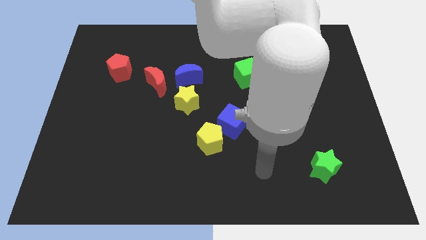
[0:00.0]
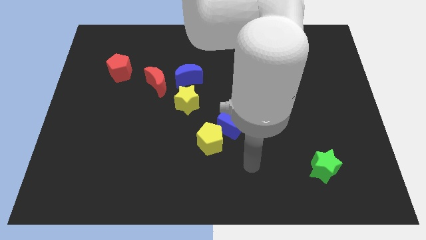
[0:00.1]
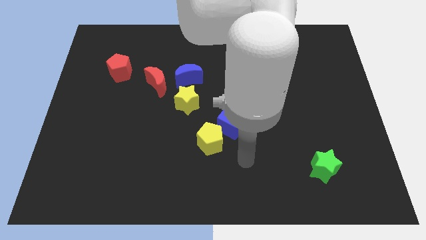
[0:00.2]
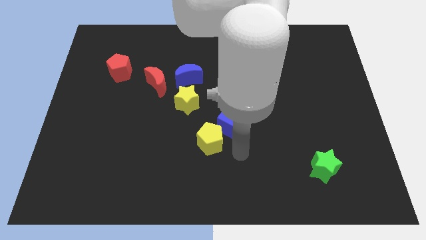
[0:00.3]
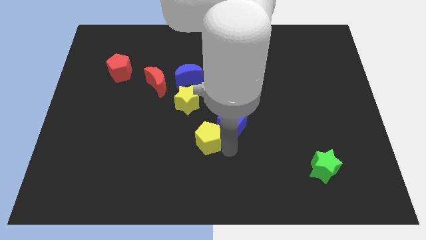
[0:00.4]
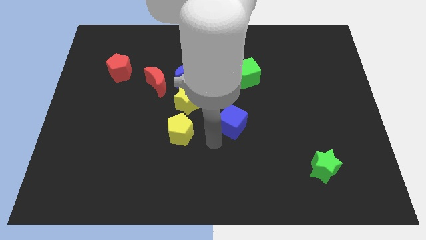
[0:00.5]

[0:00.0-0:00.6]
separate the blue cube from the yellow pentagon

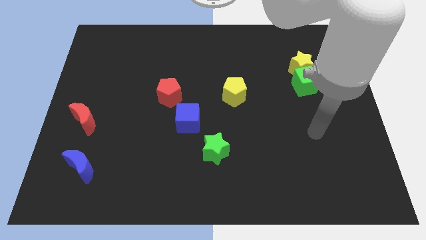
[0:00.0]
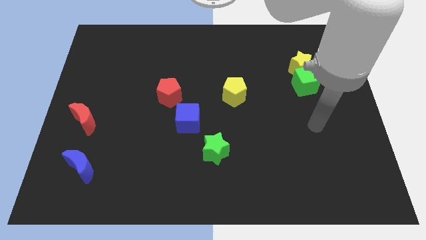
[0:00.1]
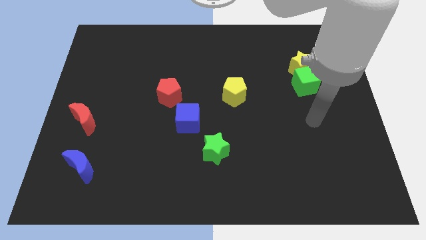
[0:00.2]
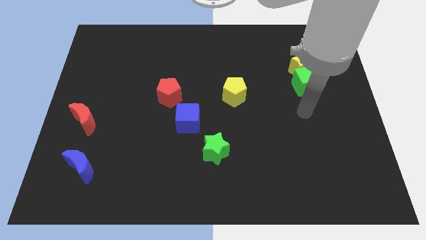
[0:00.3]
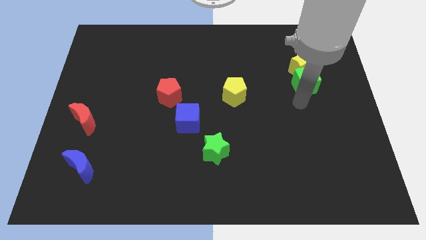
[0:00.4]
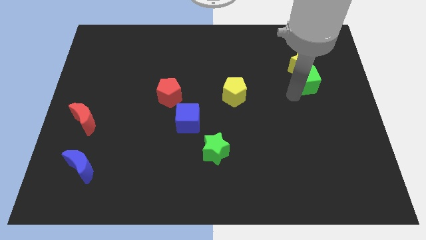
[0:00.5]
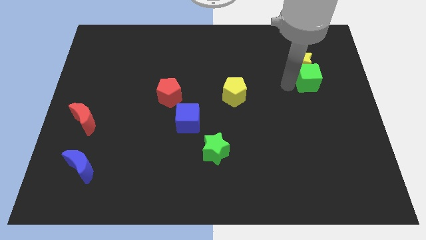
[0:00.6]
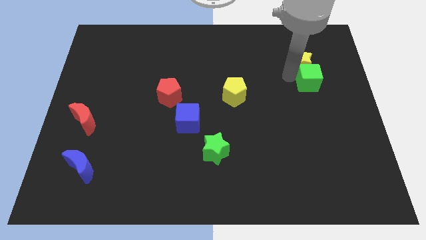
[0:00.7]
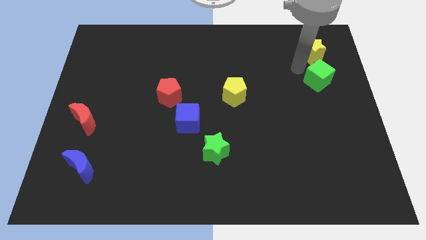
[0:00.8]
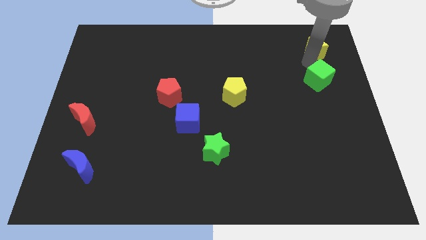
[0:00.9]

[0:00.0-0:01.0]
pull the green cube apart from the yellow star

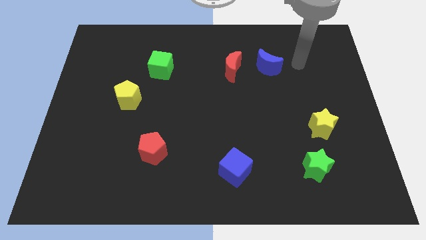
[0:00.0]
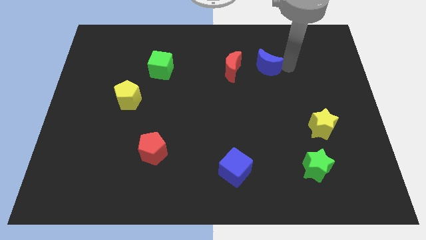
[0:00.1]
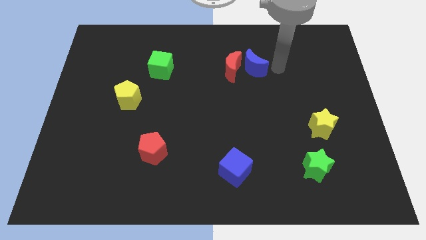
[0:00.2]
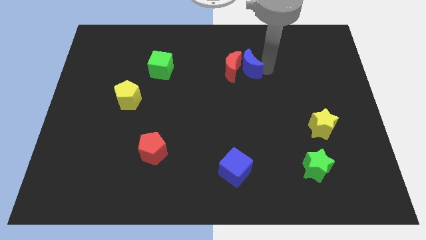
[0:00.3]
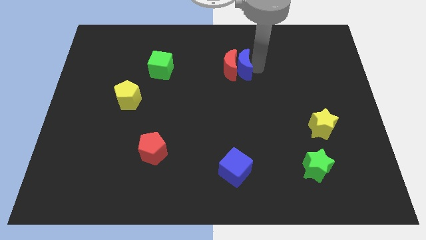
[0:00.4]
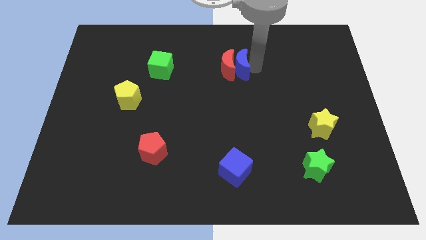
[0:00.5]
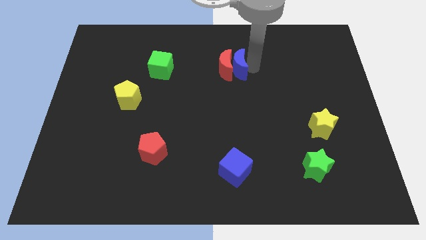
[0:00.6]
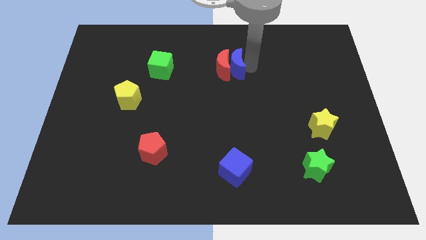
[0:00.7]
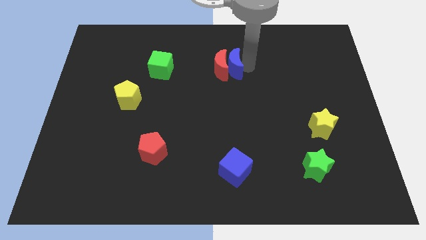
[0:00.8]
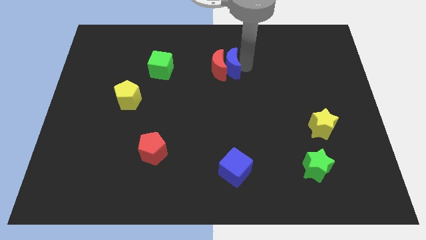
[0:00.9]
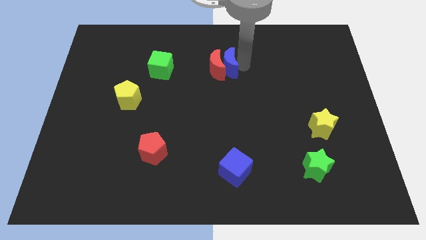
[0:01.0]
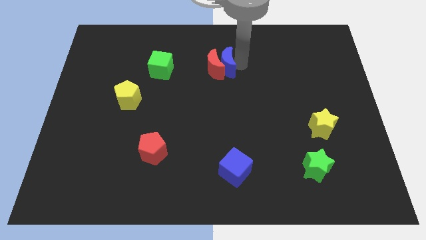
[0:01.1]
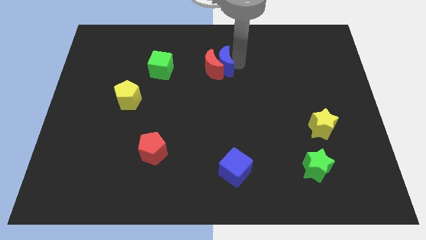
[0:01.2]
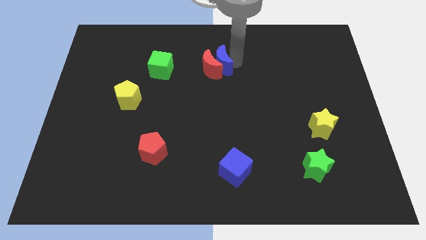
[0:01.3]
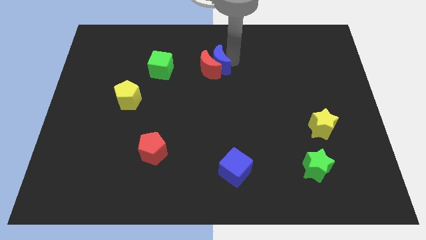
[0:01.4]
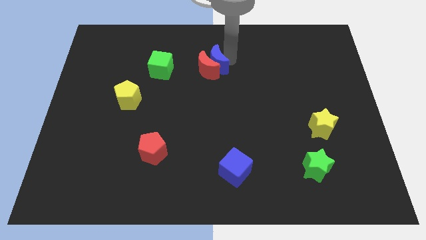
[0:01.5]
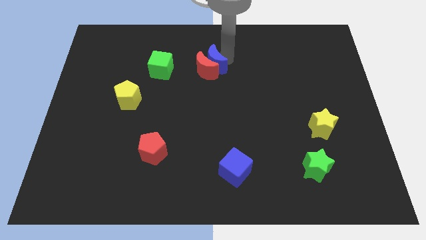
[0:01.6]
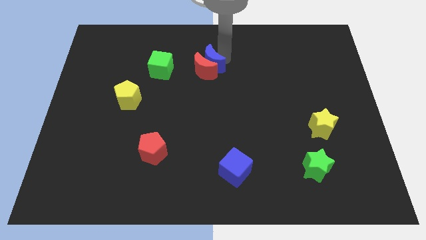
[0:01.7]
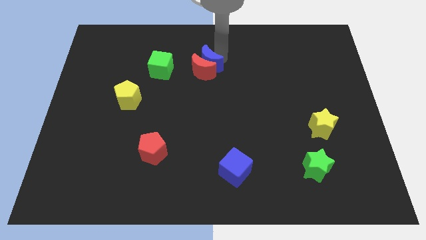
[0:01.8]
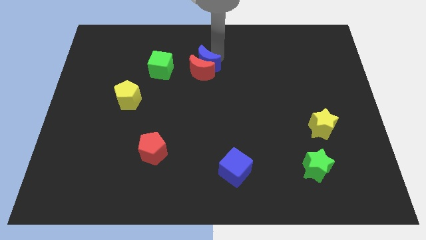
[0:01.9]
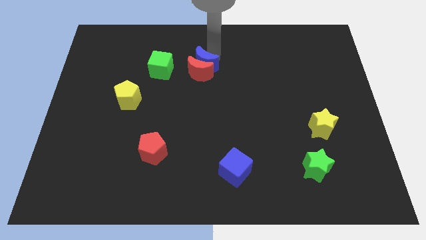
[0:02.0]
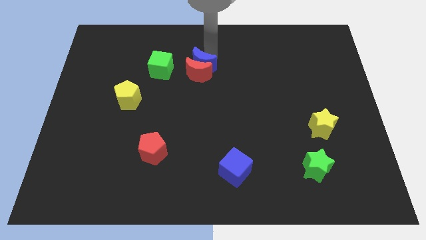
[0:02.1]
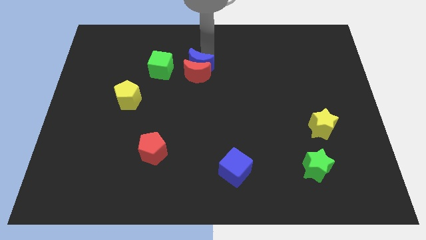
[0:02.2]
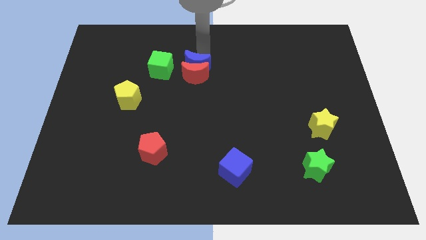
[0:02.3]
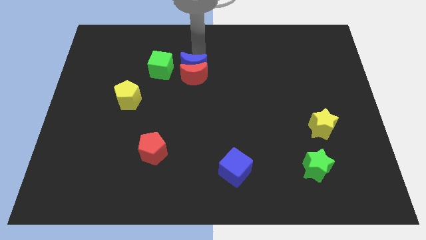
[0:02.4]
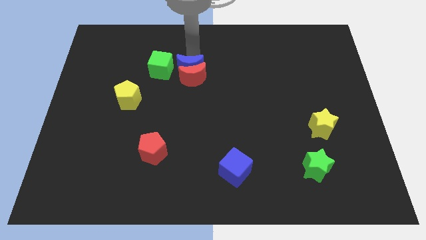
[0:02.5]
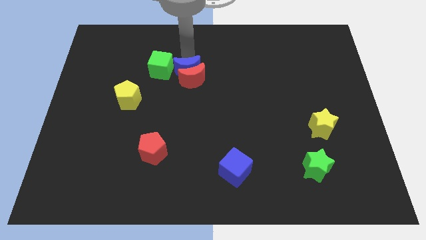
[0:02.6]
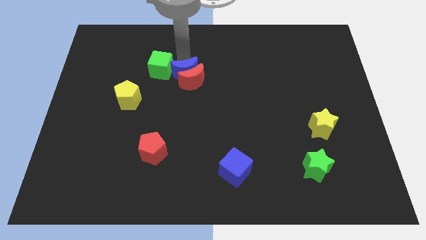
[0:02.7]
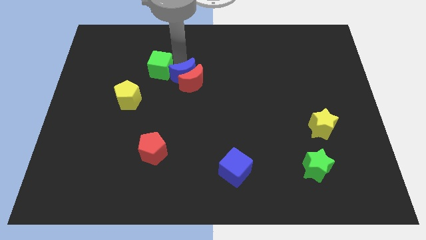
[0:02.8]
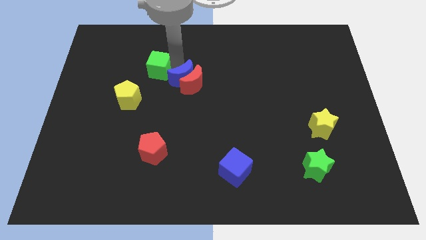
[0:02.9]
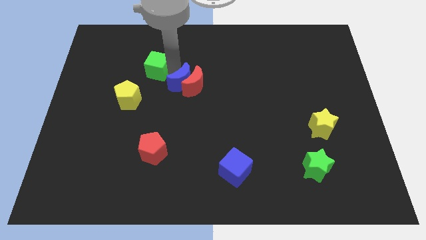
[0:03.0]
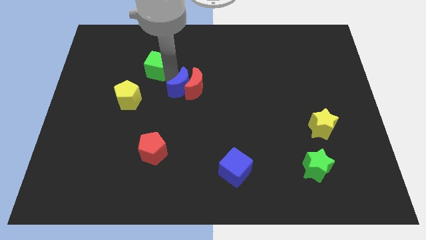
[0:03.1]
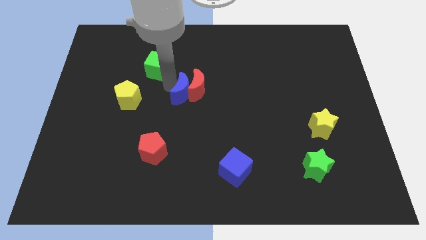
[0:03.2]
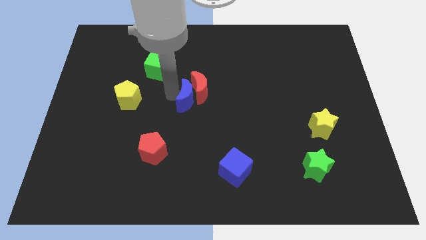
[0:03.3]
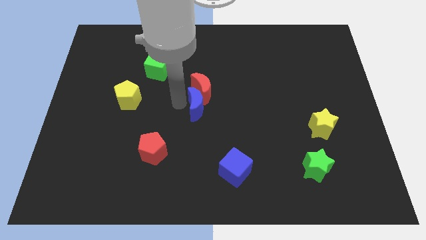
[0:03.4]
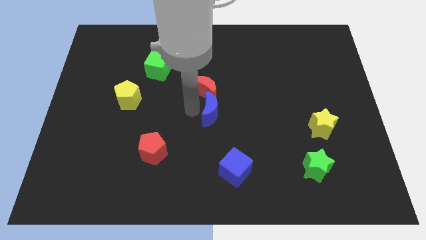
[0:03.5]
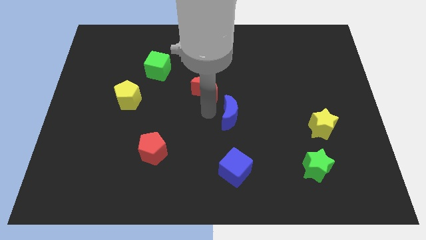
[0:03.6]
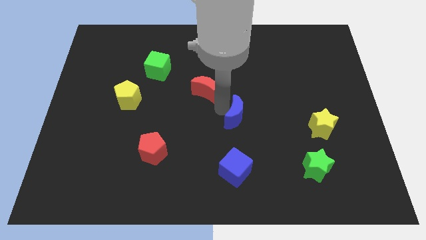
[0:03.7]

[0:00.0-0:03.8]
move the red moon away from the blue moon

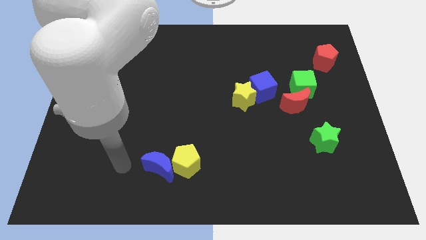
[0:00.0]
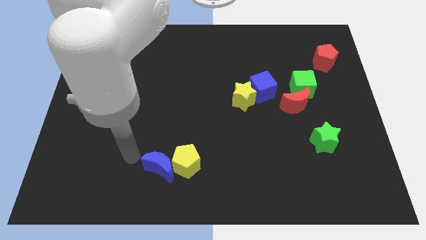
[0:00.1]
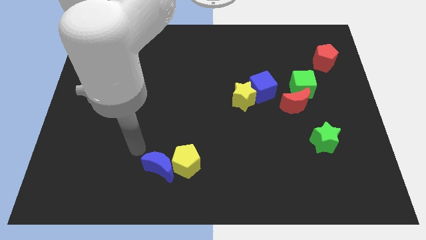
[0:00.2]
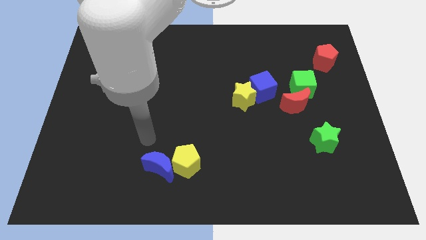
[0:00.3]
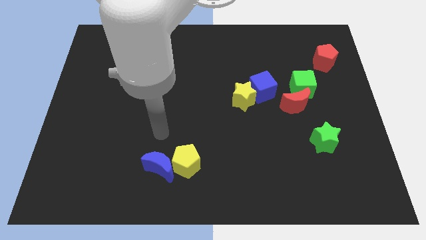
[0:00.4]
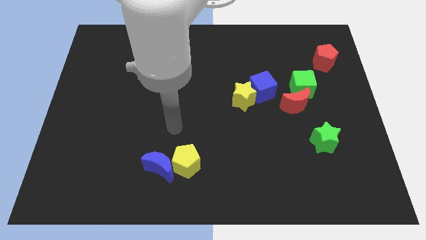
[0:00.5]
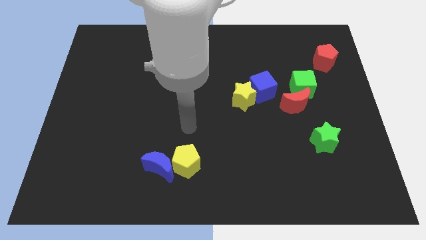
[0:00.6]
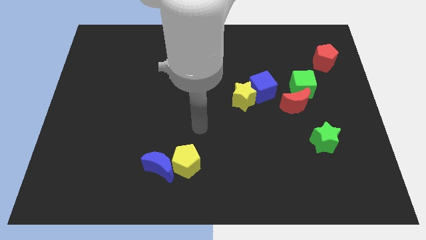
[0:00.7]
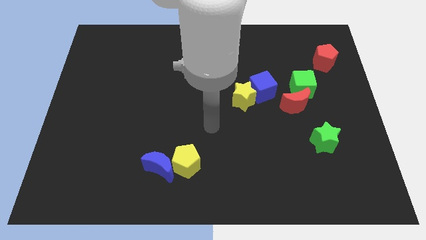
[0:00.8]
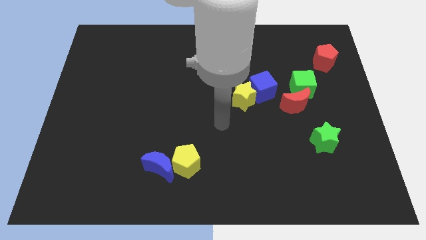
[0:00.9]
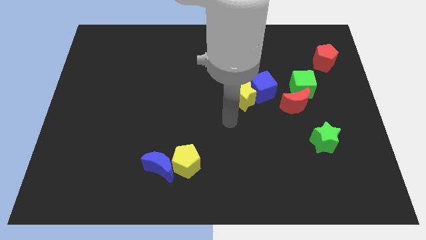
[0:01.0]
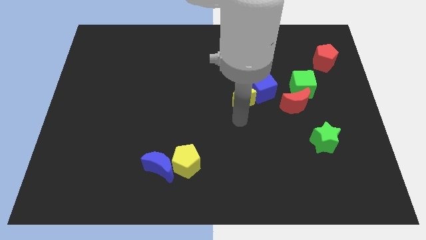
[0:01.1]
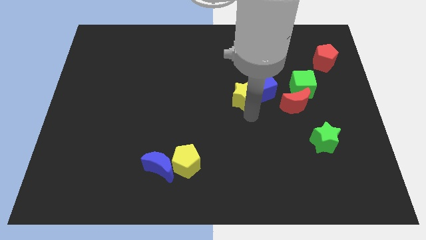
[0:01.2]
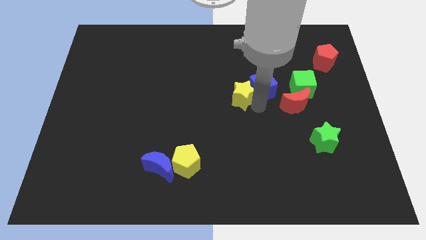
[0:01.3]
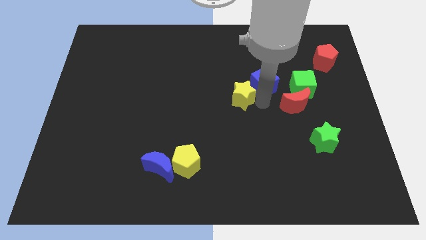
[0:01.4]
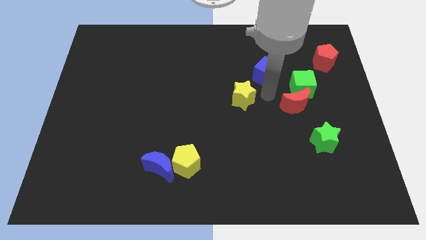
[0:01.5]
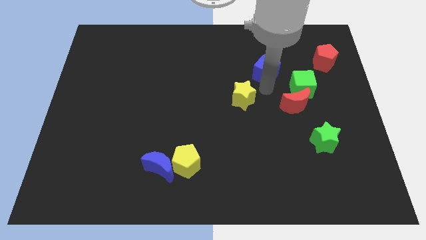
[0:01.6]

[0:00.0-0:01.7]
separate the yellow star from the blue cube

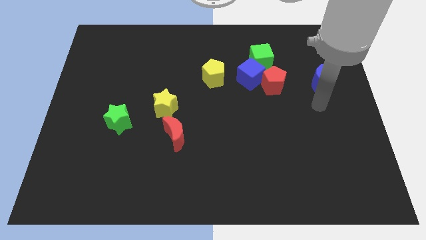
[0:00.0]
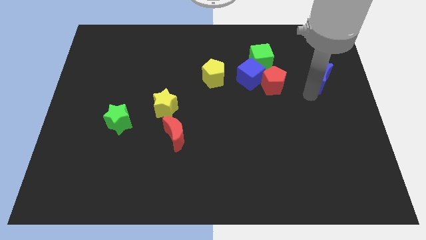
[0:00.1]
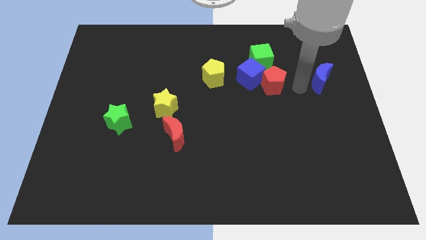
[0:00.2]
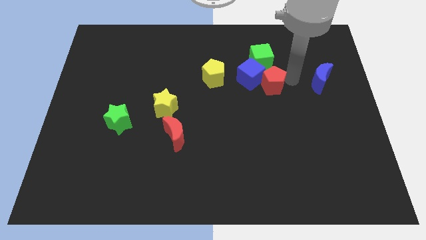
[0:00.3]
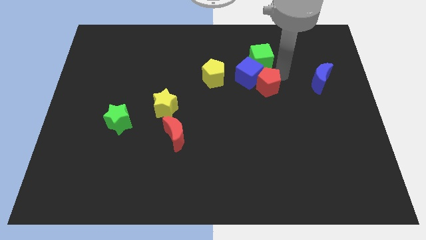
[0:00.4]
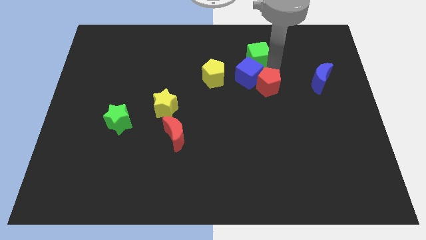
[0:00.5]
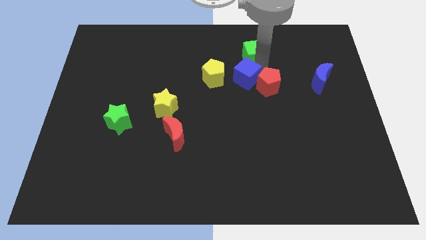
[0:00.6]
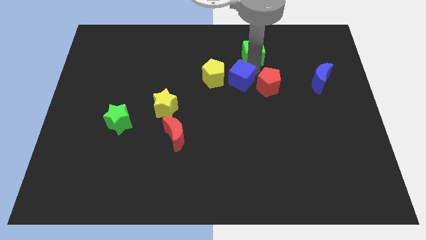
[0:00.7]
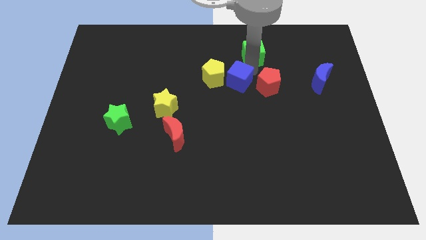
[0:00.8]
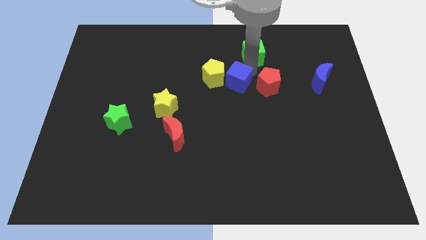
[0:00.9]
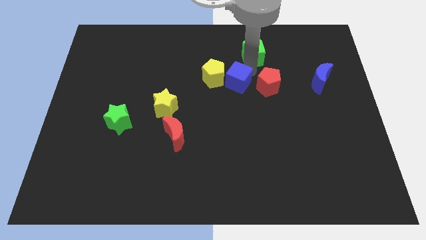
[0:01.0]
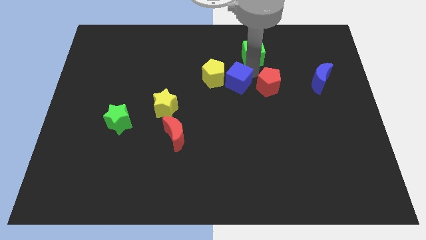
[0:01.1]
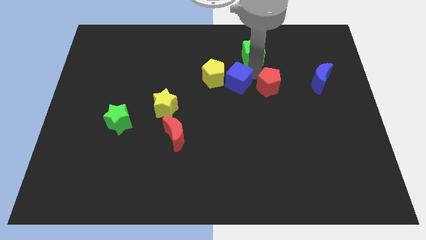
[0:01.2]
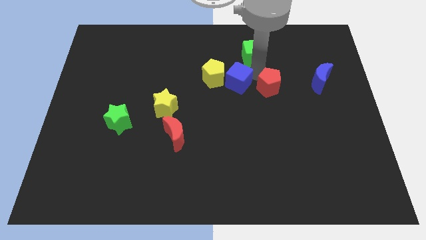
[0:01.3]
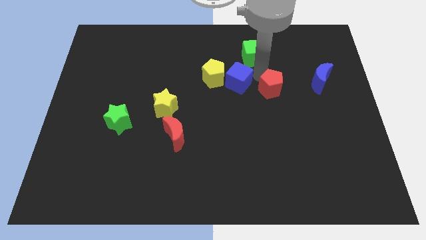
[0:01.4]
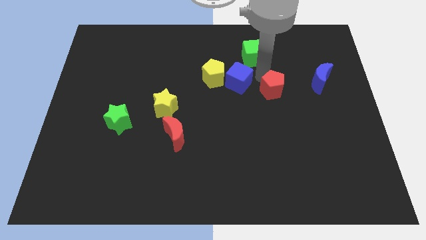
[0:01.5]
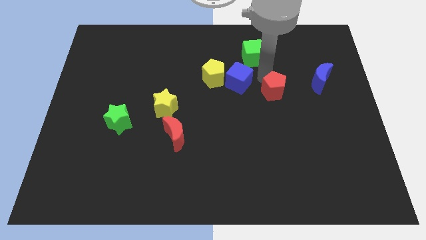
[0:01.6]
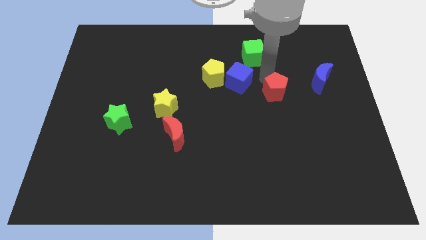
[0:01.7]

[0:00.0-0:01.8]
move the red pentagon away from the blue cube and green cube

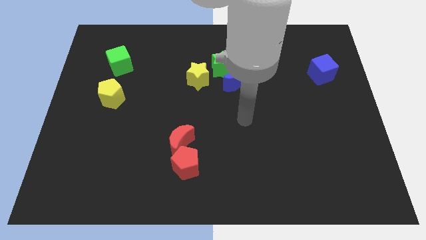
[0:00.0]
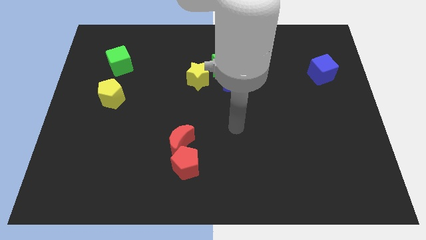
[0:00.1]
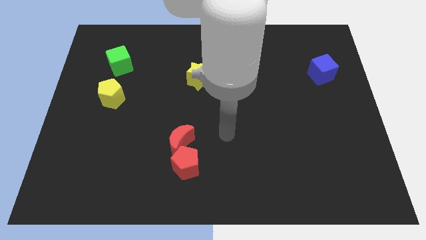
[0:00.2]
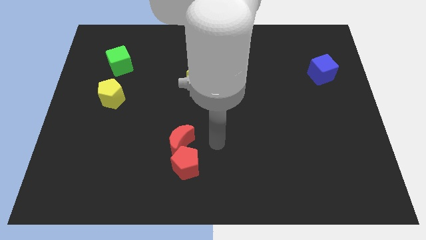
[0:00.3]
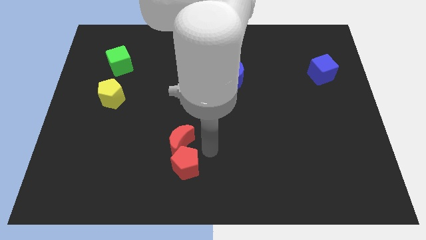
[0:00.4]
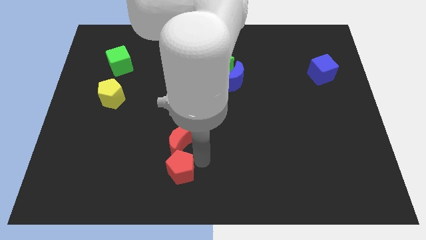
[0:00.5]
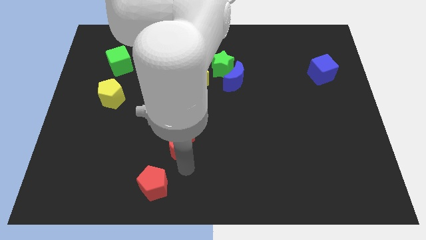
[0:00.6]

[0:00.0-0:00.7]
separate the red moon from the red pentagon
